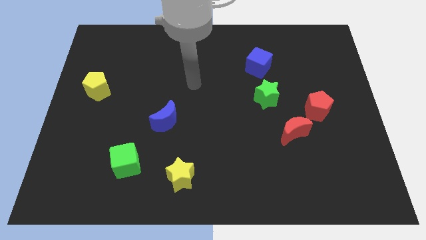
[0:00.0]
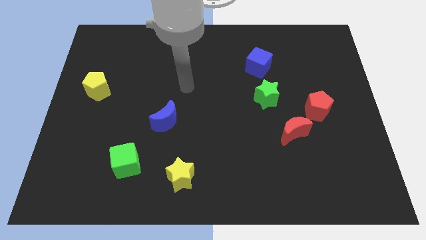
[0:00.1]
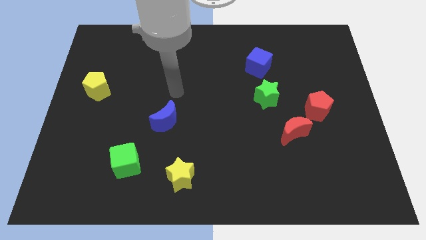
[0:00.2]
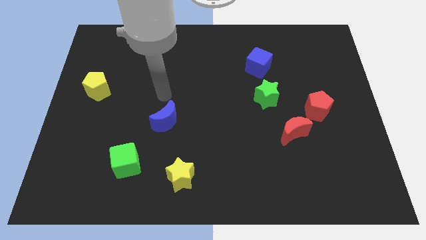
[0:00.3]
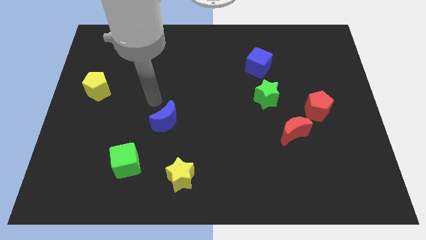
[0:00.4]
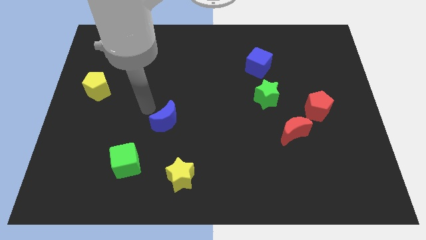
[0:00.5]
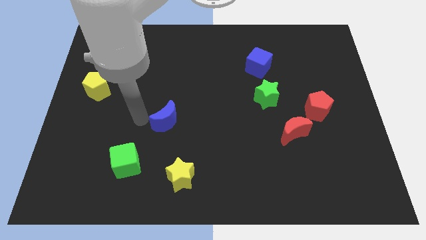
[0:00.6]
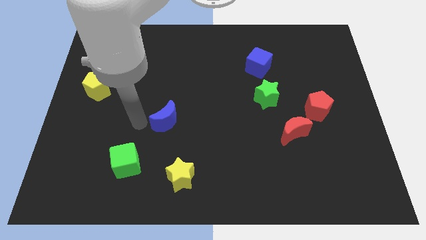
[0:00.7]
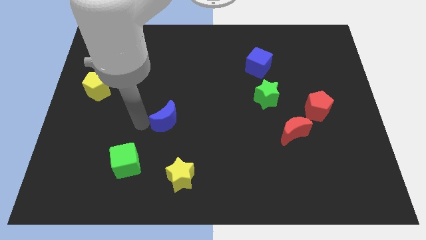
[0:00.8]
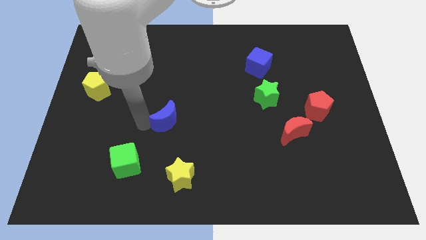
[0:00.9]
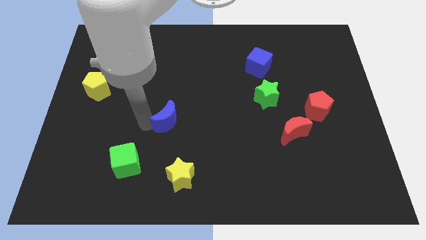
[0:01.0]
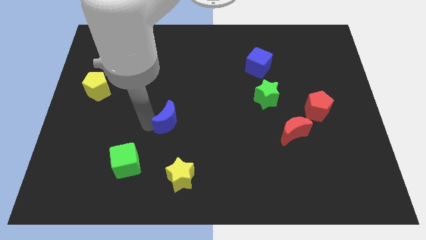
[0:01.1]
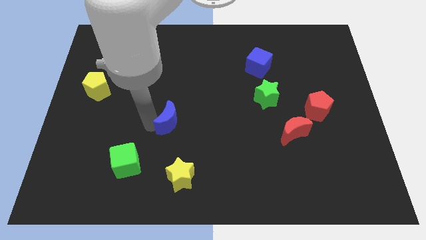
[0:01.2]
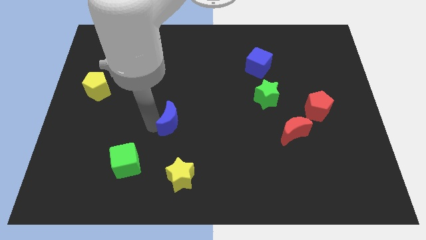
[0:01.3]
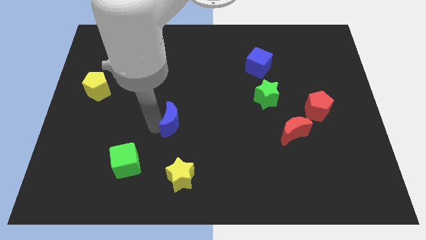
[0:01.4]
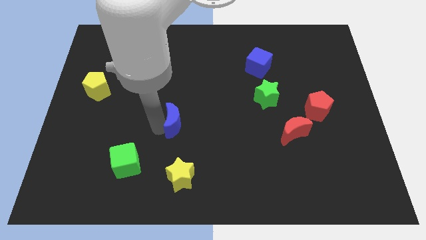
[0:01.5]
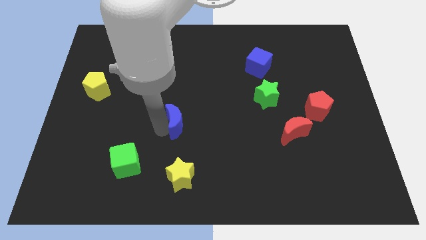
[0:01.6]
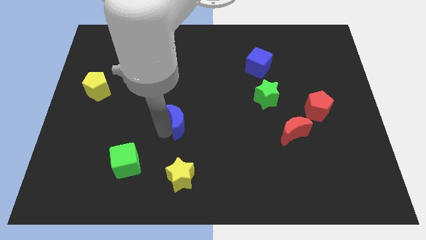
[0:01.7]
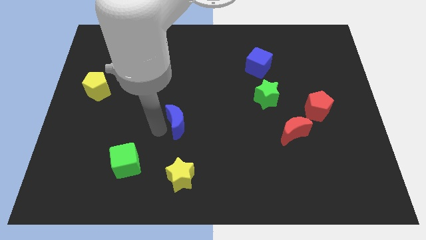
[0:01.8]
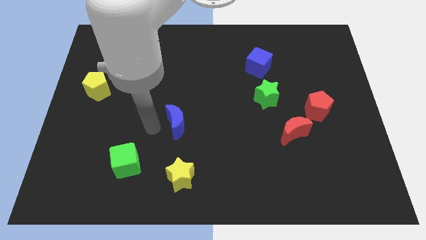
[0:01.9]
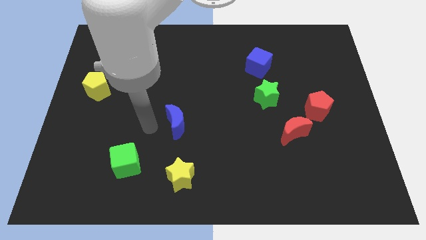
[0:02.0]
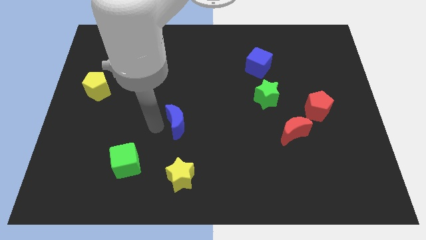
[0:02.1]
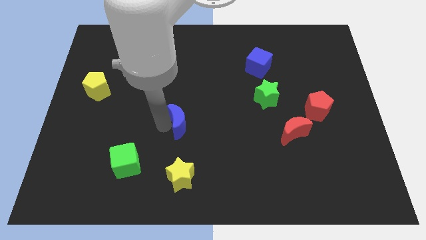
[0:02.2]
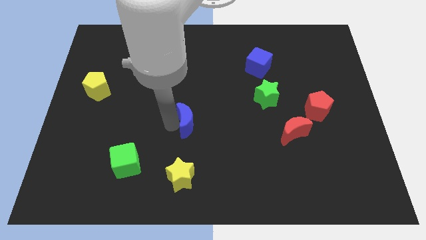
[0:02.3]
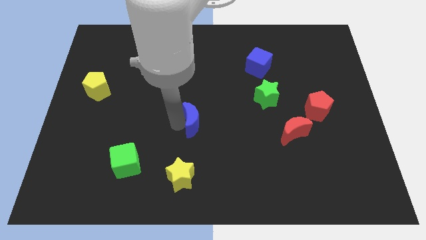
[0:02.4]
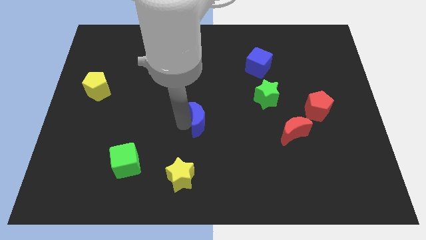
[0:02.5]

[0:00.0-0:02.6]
push the blue moon somewhat to the right

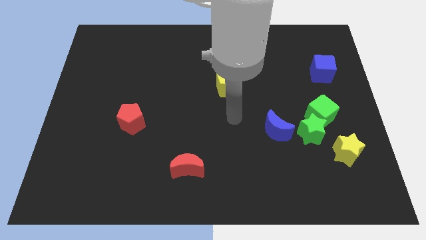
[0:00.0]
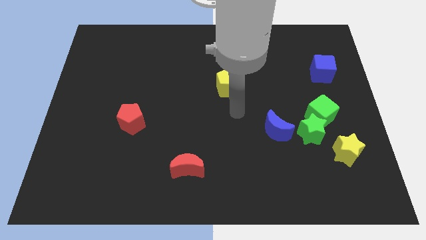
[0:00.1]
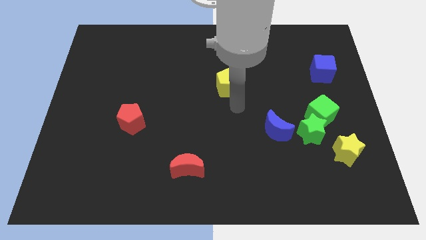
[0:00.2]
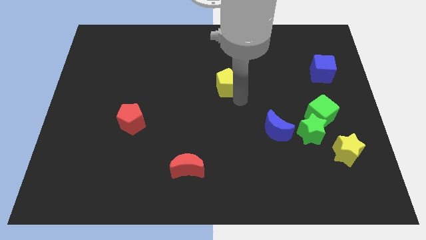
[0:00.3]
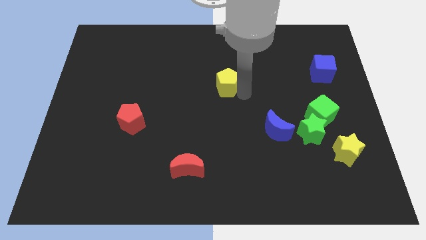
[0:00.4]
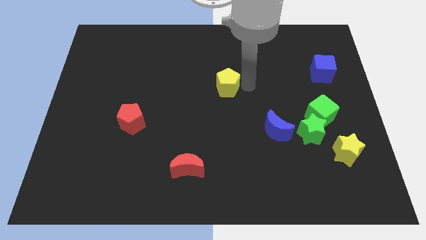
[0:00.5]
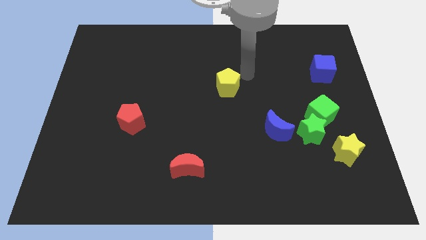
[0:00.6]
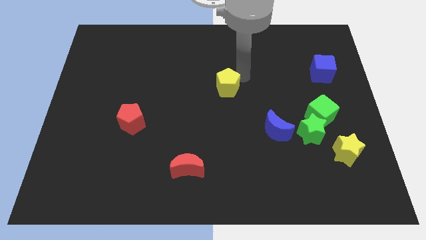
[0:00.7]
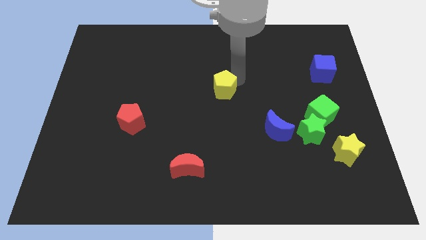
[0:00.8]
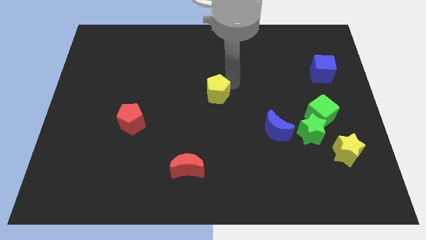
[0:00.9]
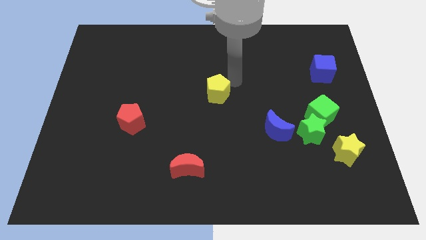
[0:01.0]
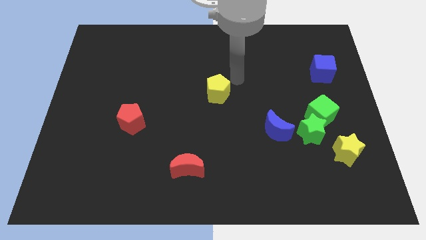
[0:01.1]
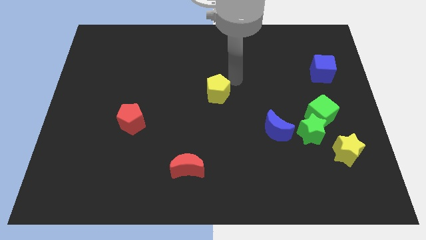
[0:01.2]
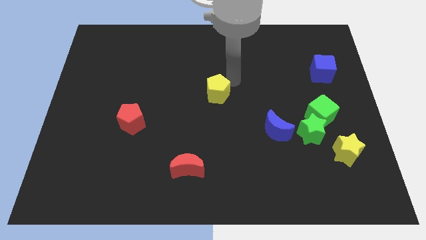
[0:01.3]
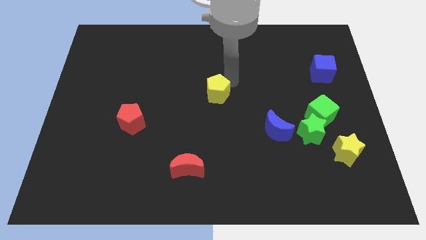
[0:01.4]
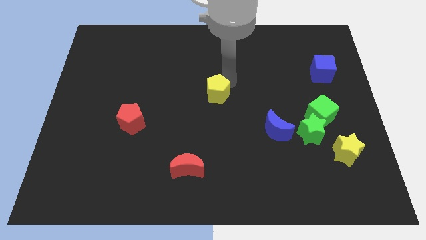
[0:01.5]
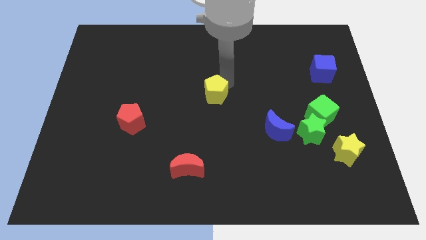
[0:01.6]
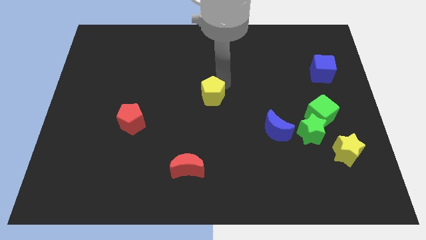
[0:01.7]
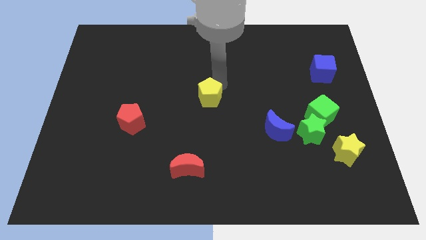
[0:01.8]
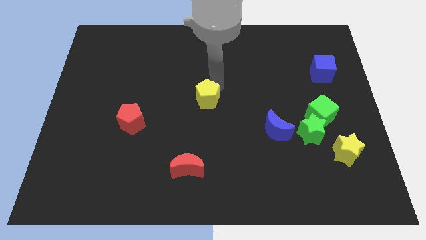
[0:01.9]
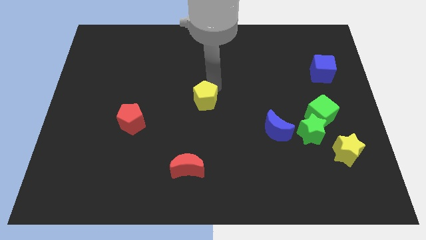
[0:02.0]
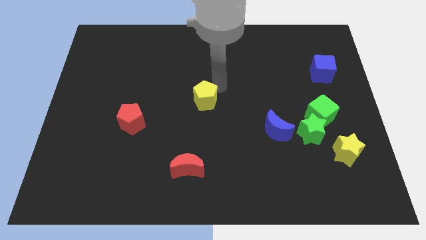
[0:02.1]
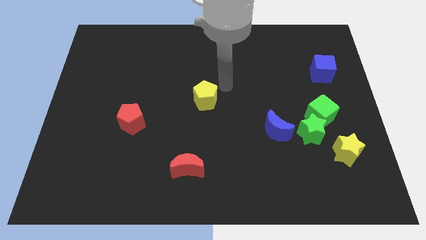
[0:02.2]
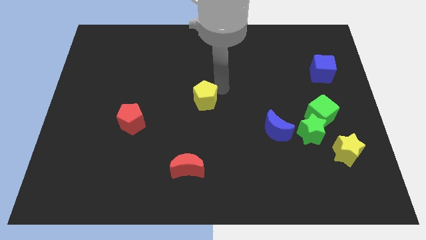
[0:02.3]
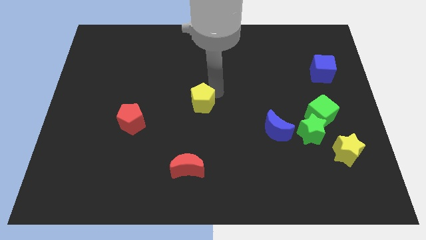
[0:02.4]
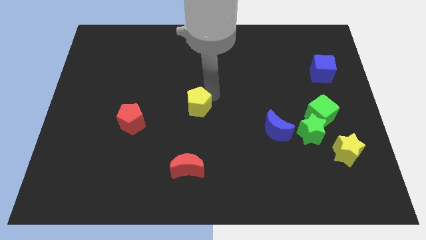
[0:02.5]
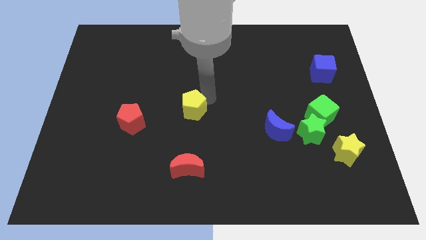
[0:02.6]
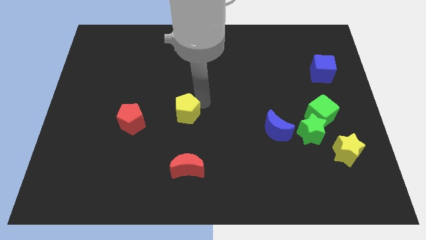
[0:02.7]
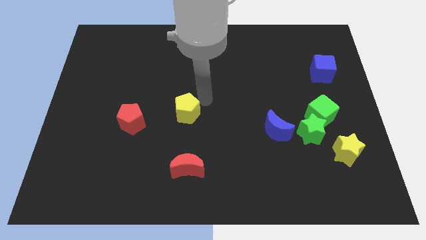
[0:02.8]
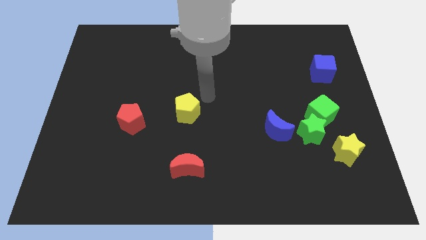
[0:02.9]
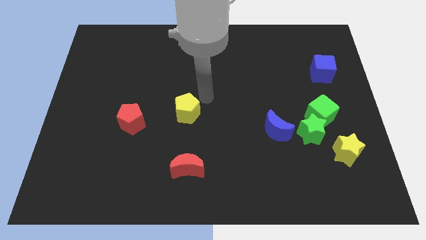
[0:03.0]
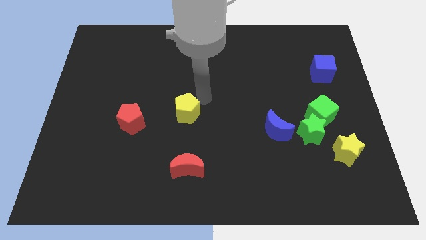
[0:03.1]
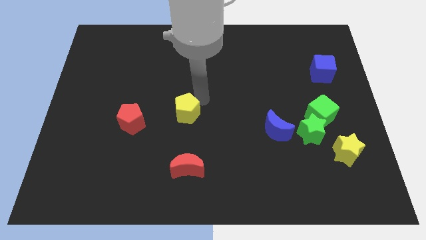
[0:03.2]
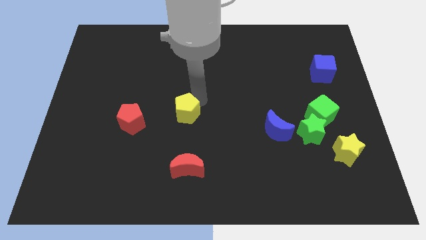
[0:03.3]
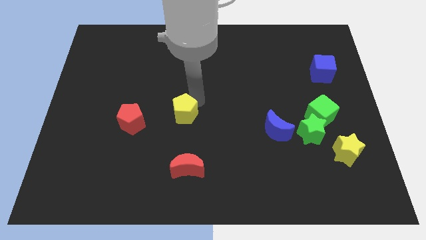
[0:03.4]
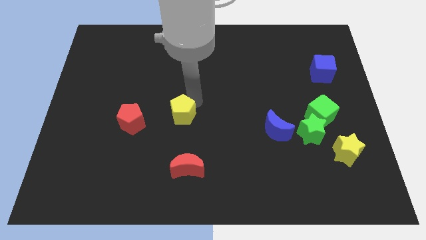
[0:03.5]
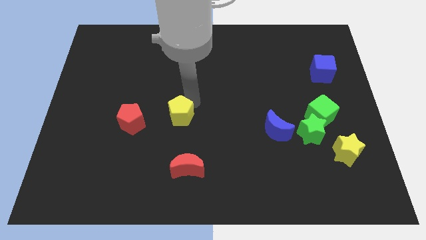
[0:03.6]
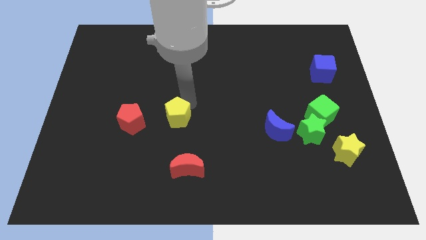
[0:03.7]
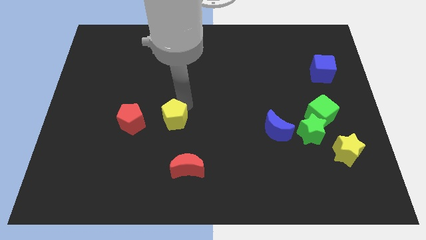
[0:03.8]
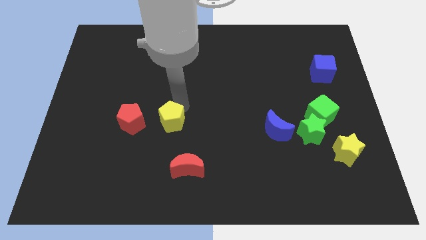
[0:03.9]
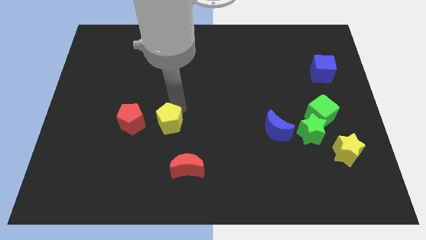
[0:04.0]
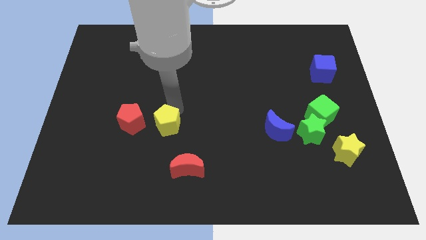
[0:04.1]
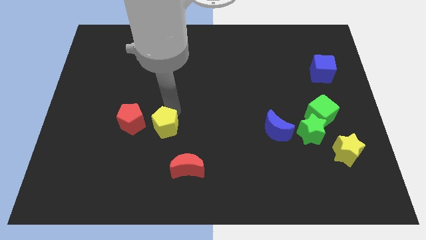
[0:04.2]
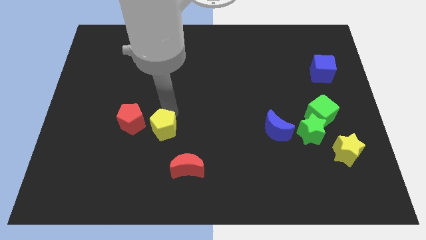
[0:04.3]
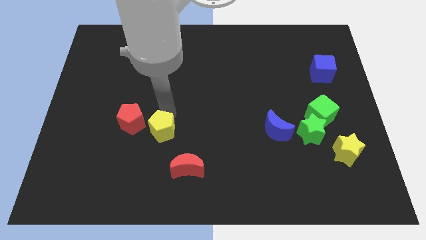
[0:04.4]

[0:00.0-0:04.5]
push the yellow pentagon diagonally downwards and to the left

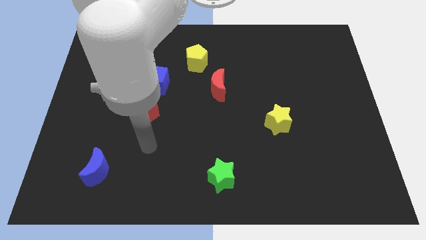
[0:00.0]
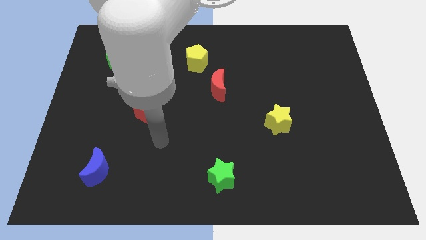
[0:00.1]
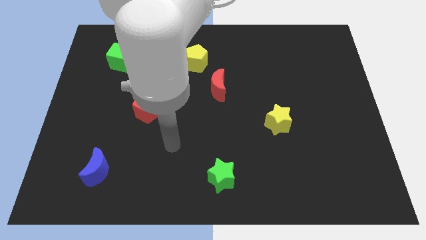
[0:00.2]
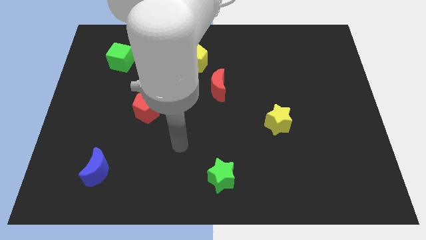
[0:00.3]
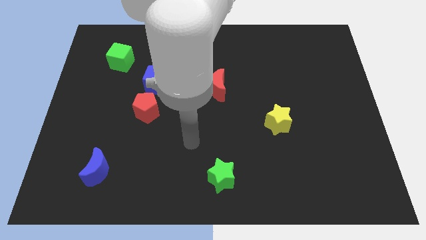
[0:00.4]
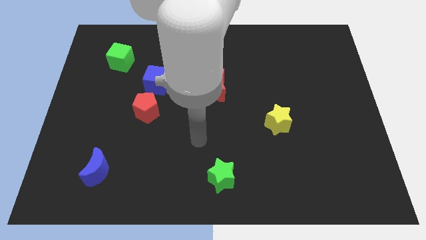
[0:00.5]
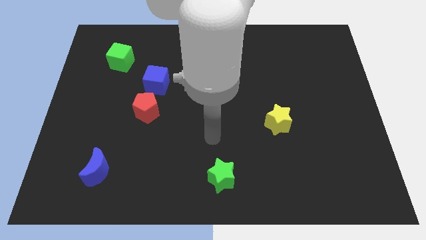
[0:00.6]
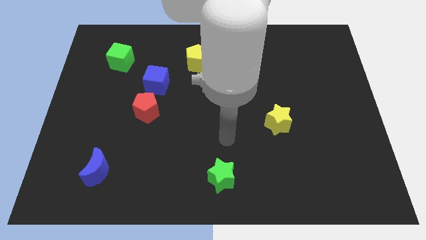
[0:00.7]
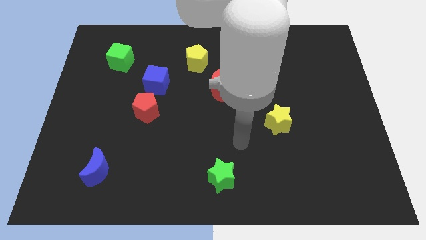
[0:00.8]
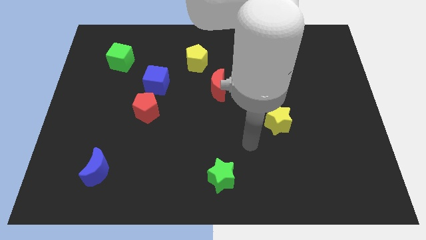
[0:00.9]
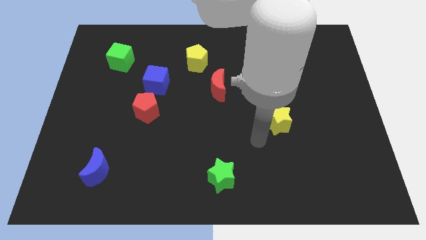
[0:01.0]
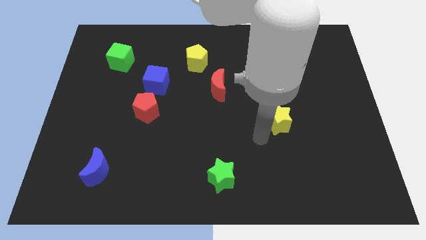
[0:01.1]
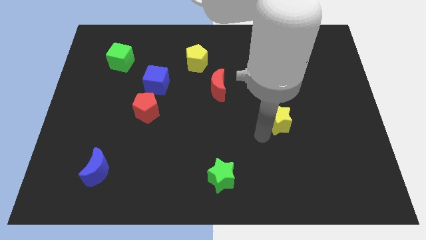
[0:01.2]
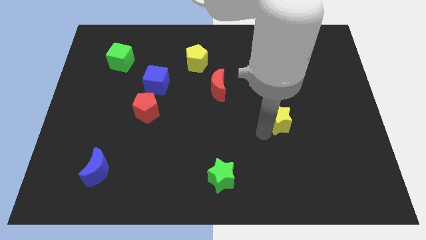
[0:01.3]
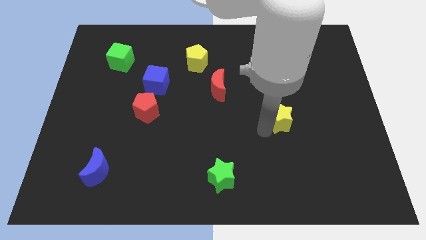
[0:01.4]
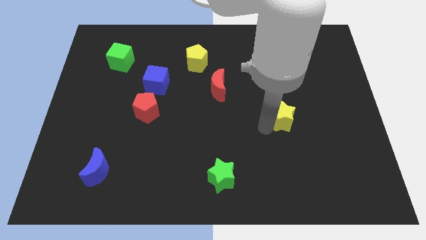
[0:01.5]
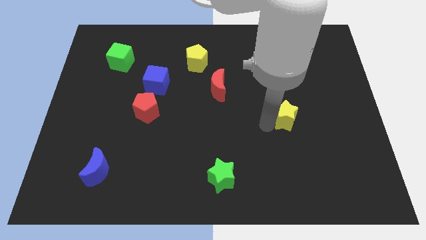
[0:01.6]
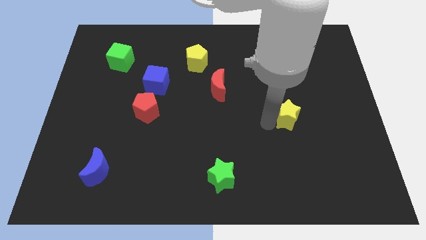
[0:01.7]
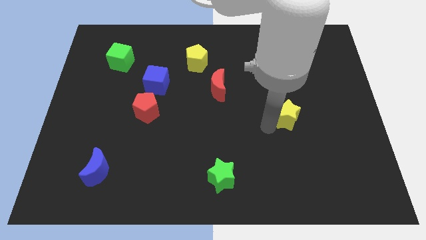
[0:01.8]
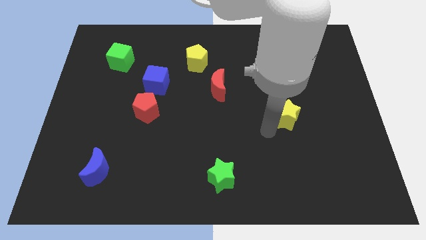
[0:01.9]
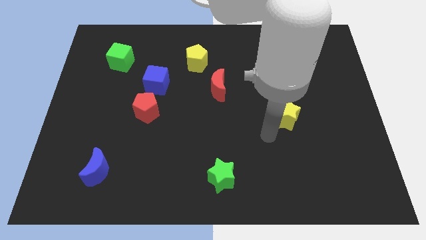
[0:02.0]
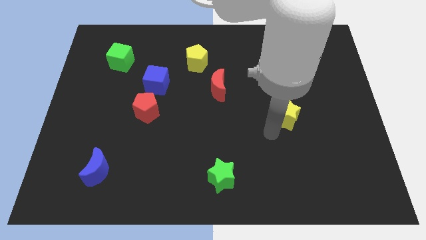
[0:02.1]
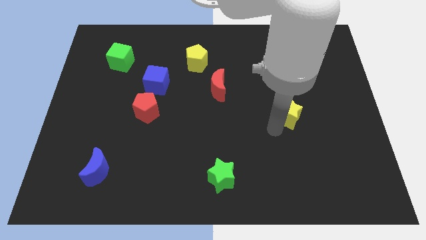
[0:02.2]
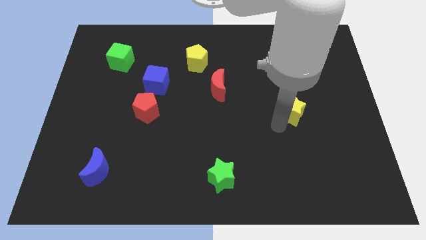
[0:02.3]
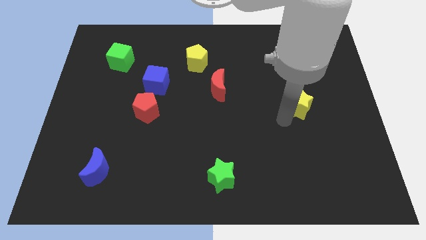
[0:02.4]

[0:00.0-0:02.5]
move the yellow star diagonally up and right a bit
